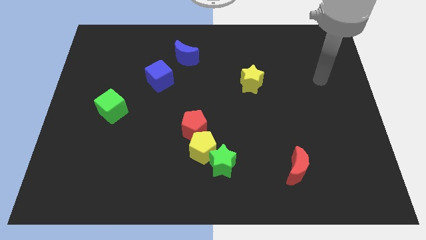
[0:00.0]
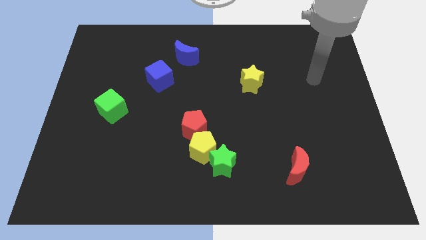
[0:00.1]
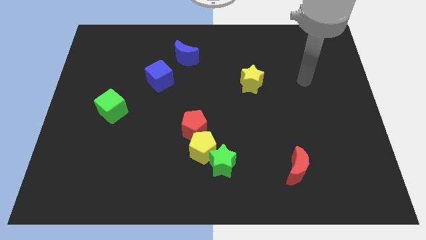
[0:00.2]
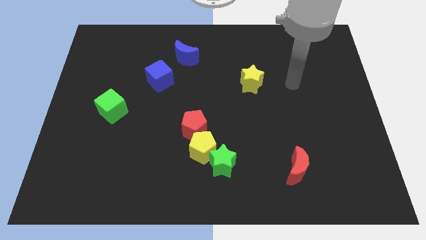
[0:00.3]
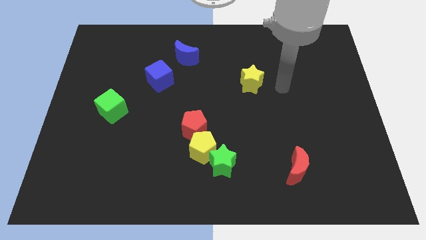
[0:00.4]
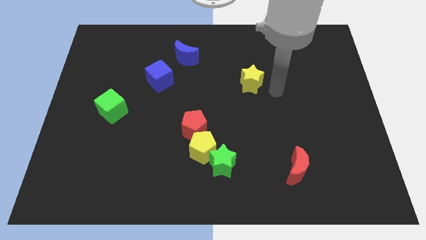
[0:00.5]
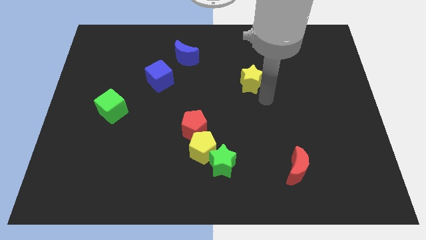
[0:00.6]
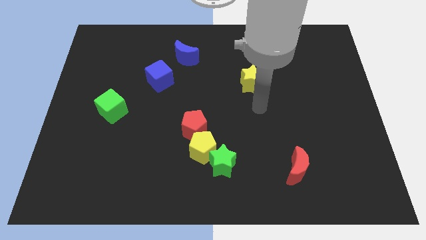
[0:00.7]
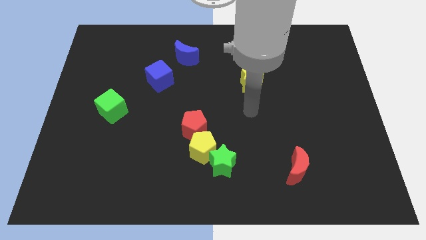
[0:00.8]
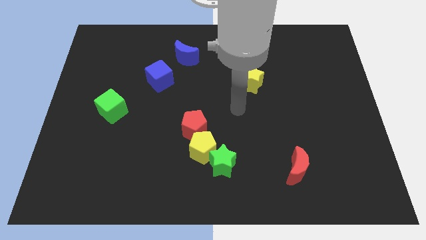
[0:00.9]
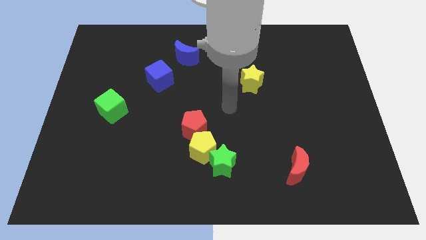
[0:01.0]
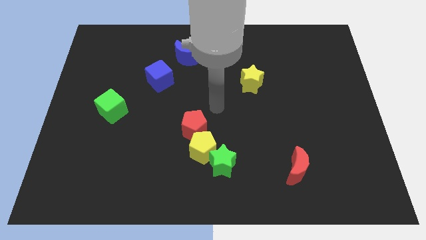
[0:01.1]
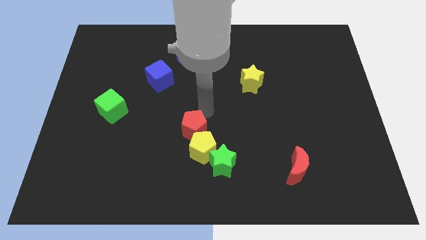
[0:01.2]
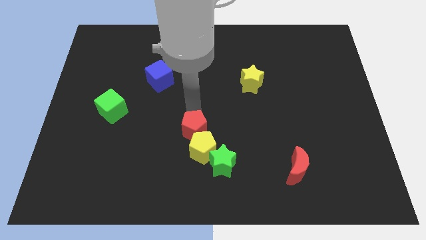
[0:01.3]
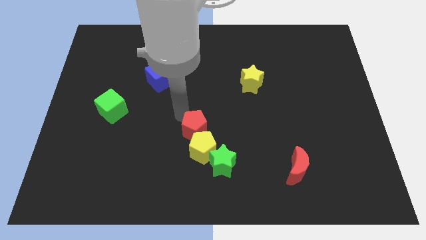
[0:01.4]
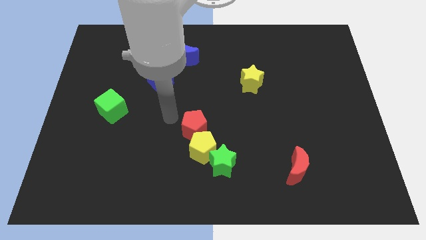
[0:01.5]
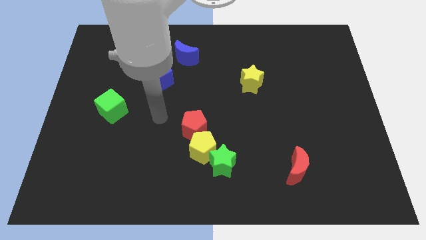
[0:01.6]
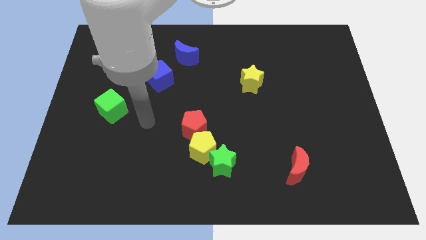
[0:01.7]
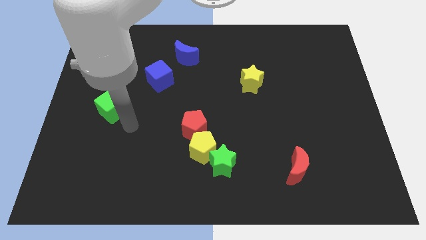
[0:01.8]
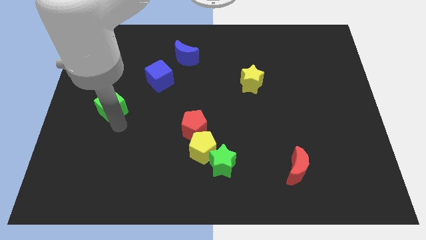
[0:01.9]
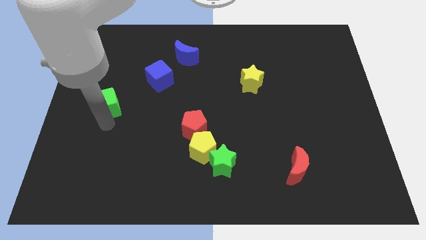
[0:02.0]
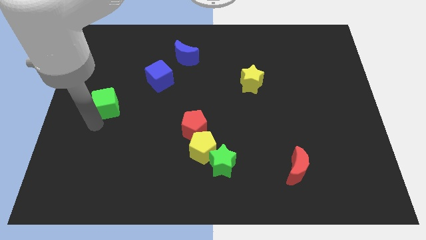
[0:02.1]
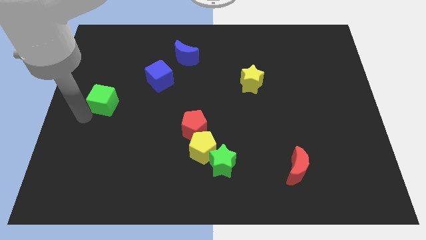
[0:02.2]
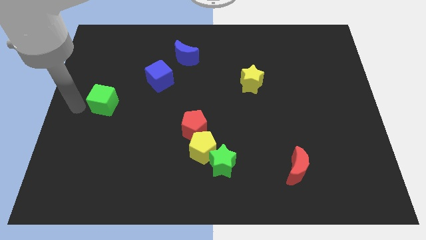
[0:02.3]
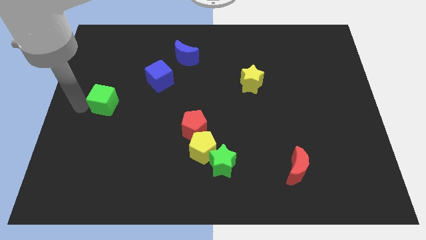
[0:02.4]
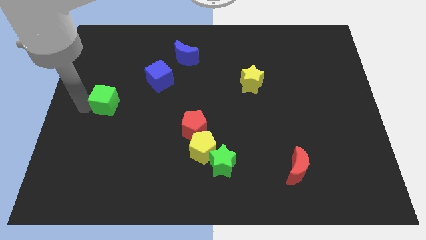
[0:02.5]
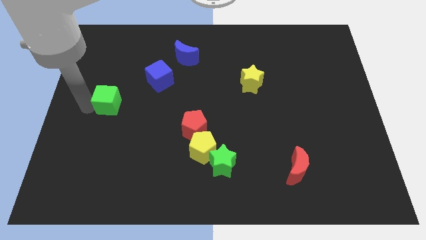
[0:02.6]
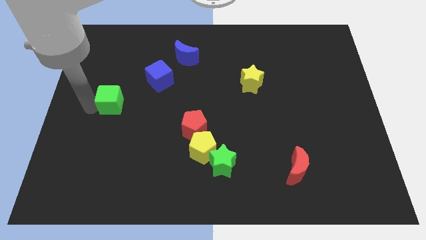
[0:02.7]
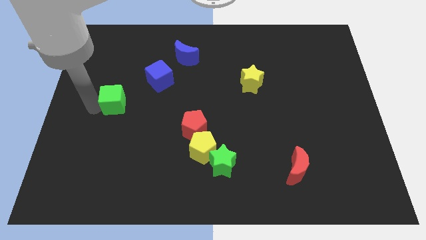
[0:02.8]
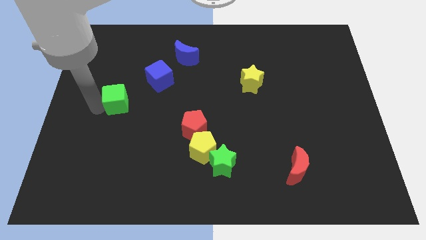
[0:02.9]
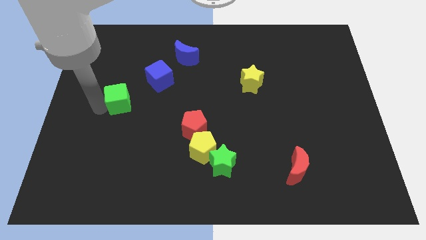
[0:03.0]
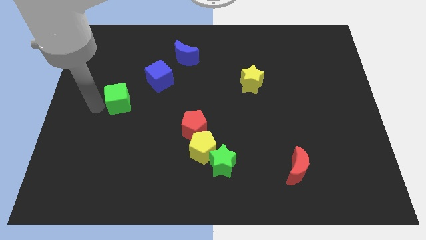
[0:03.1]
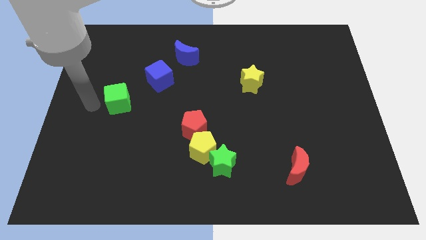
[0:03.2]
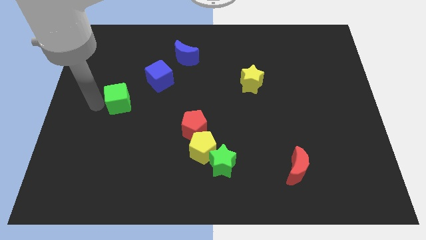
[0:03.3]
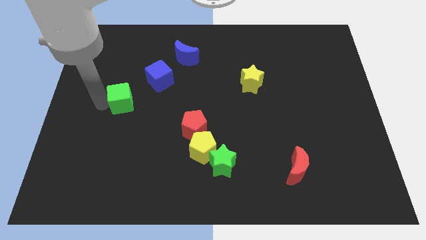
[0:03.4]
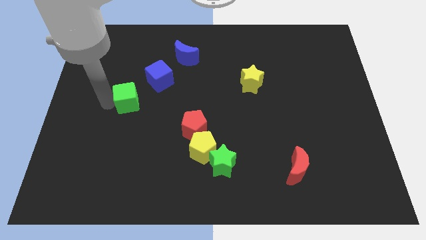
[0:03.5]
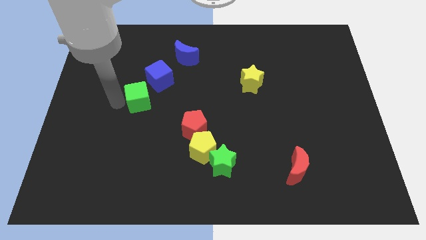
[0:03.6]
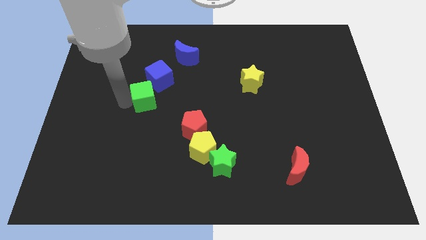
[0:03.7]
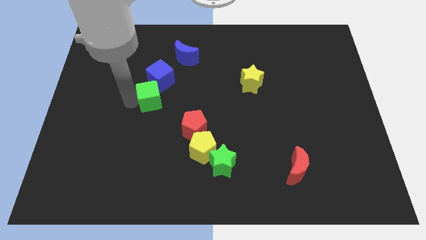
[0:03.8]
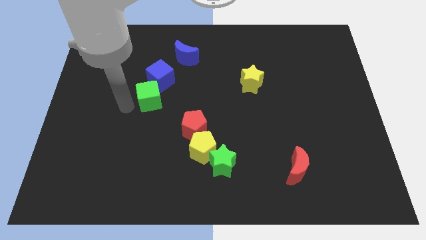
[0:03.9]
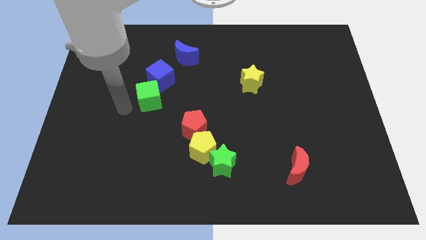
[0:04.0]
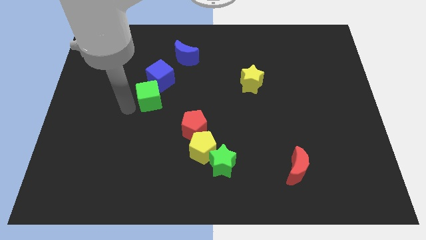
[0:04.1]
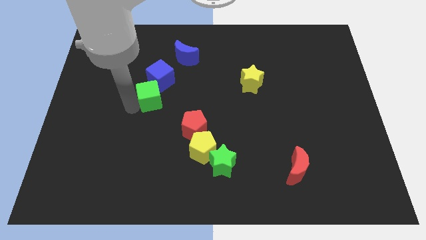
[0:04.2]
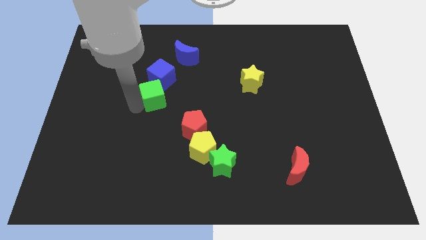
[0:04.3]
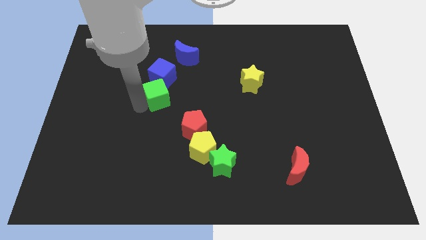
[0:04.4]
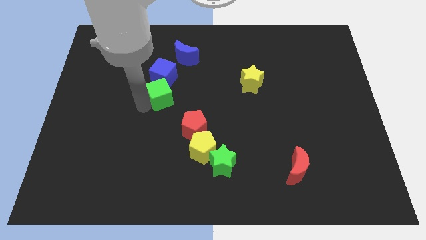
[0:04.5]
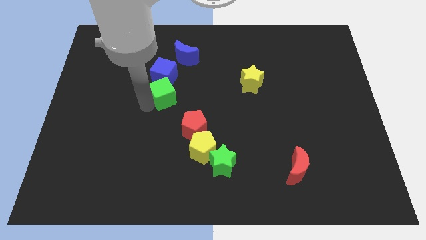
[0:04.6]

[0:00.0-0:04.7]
move the green cube below the blue moon

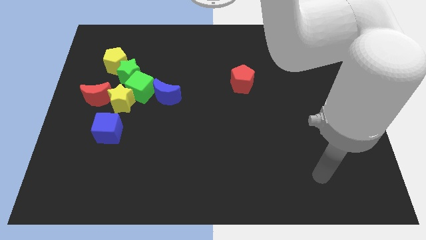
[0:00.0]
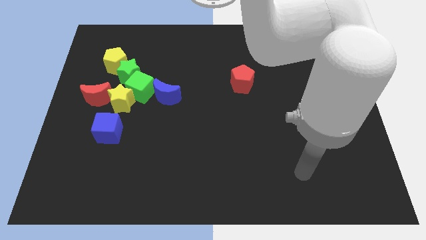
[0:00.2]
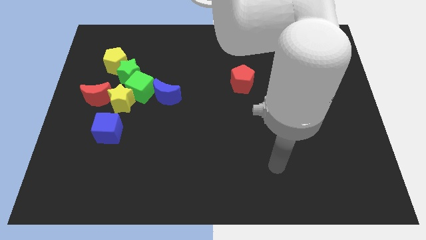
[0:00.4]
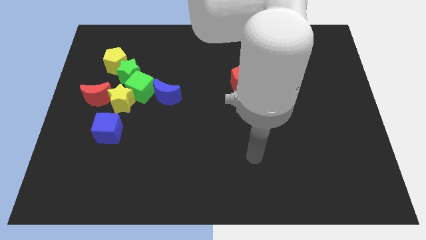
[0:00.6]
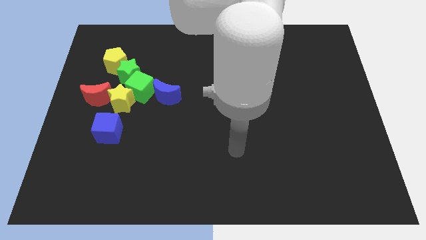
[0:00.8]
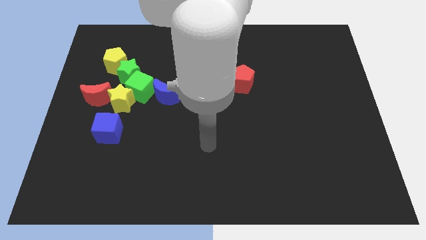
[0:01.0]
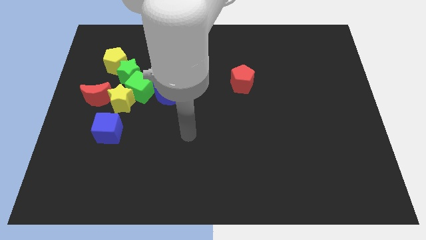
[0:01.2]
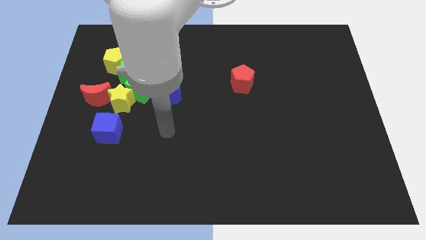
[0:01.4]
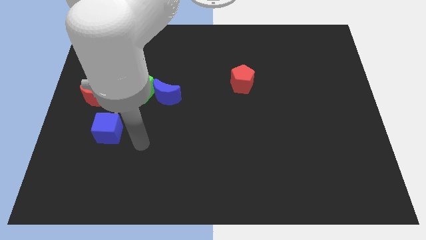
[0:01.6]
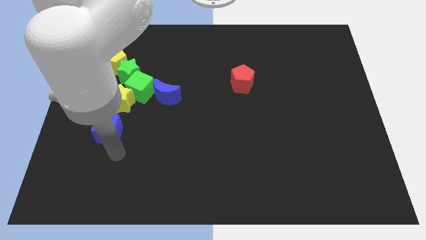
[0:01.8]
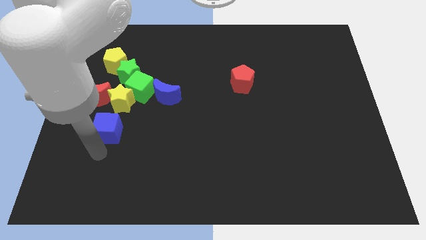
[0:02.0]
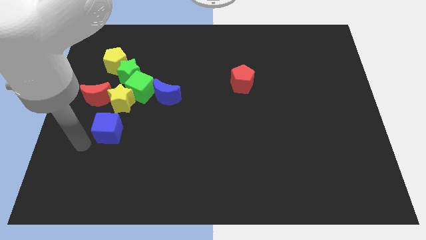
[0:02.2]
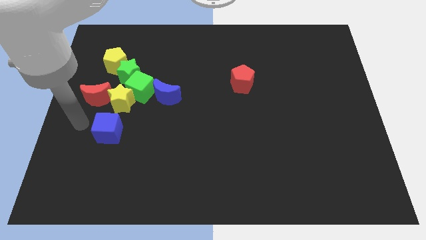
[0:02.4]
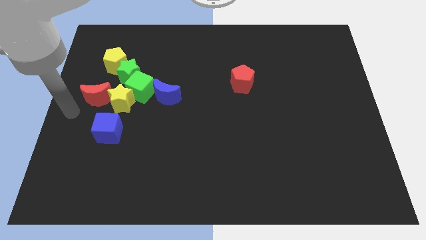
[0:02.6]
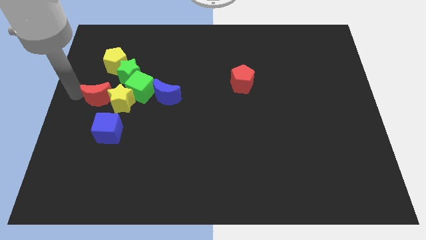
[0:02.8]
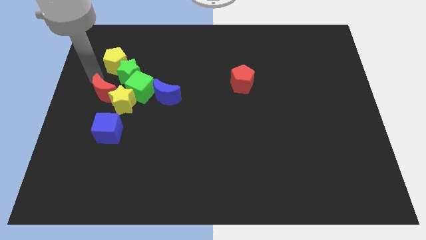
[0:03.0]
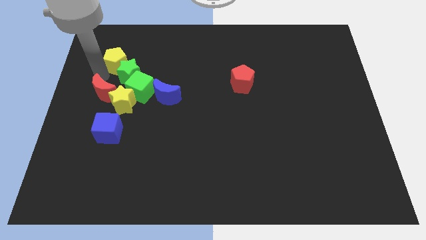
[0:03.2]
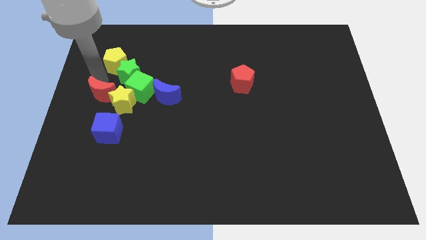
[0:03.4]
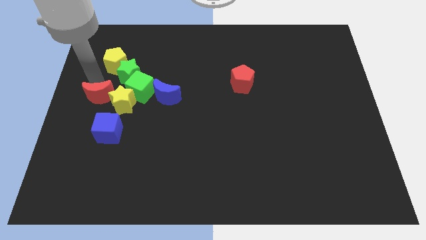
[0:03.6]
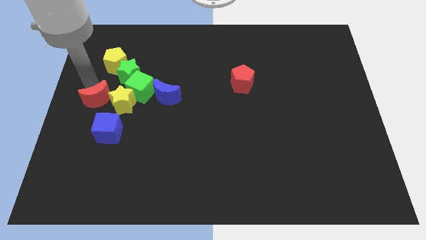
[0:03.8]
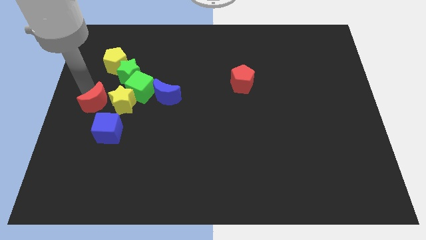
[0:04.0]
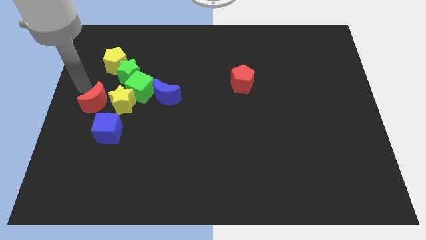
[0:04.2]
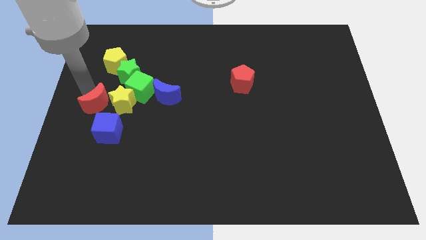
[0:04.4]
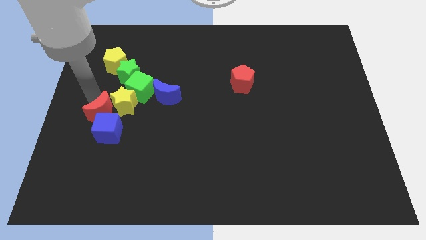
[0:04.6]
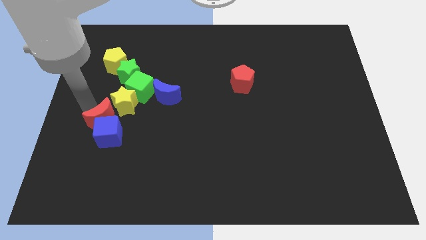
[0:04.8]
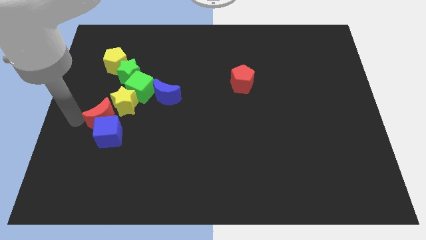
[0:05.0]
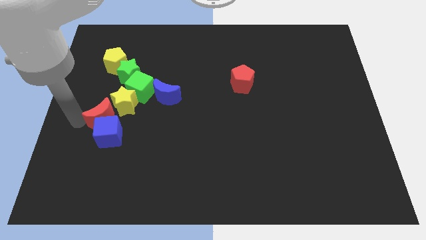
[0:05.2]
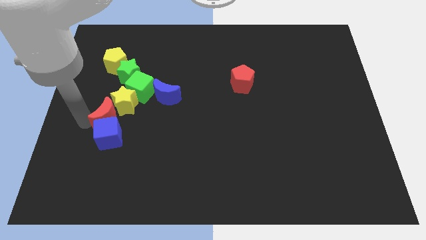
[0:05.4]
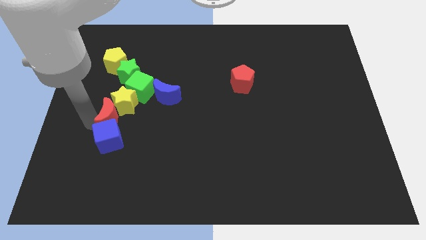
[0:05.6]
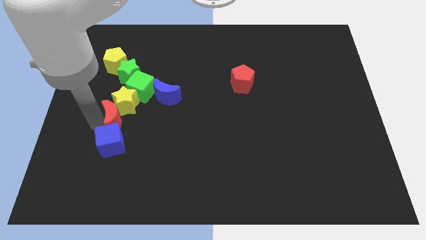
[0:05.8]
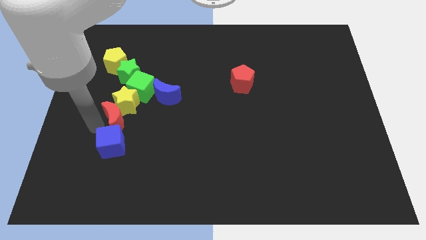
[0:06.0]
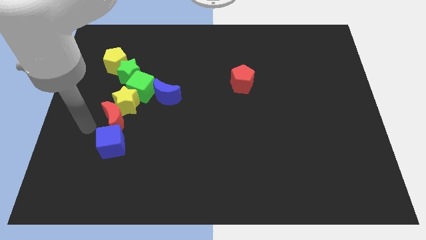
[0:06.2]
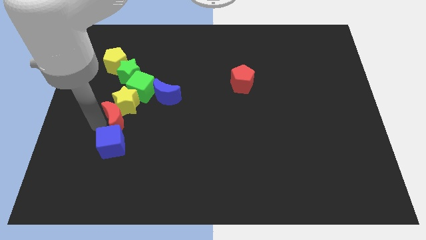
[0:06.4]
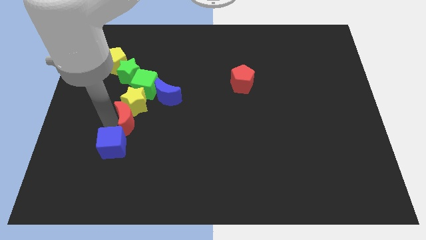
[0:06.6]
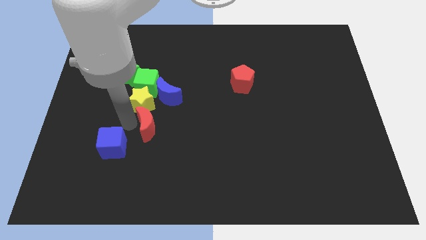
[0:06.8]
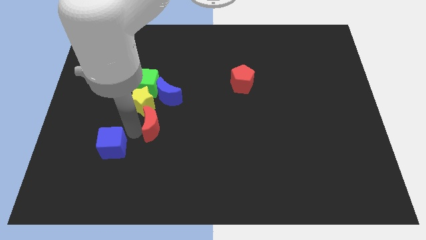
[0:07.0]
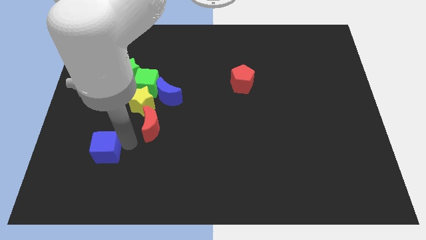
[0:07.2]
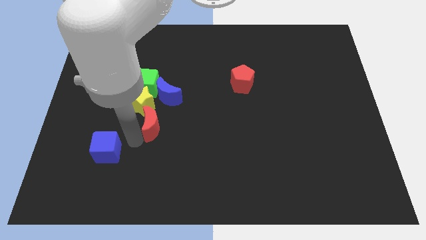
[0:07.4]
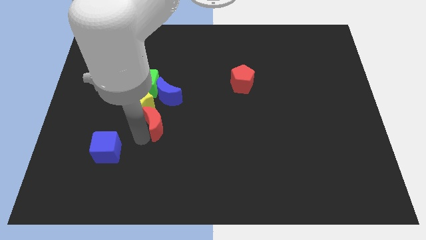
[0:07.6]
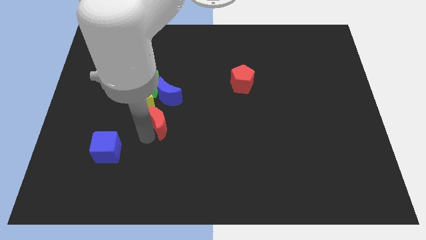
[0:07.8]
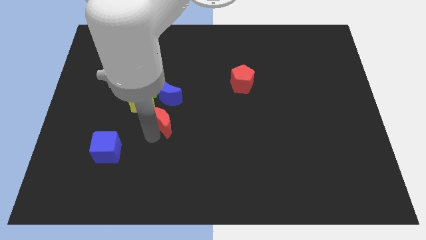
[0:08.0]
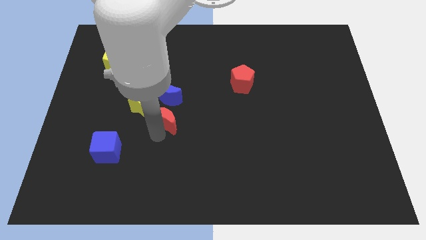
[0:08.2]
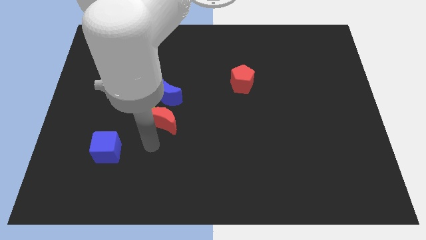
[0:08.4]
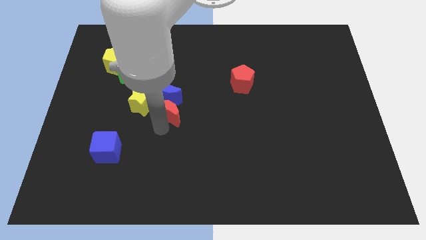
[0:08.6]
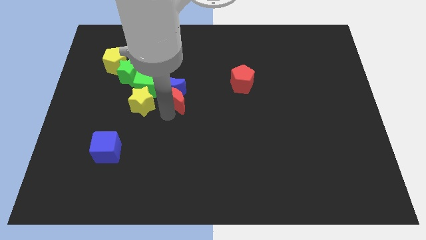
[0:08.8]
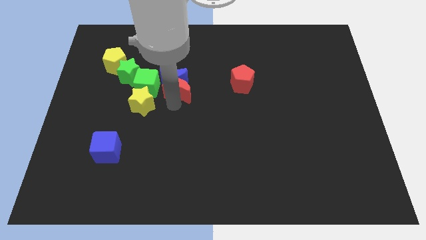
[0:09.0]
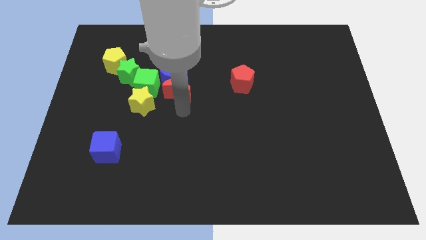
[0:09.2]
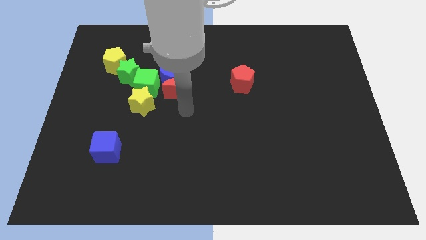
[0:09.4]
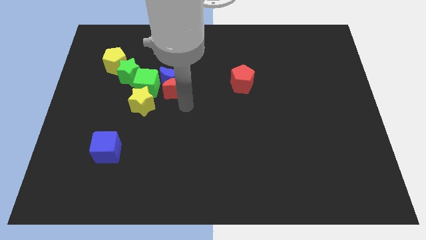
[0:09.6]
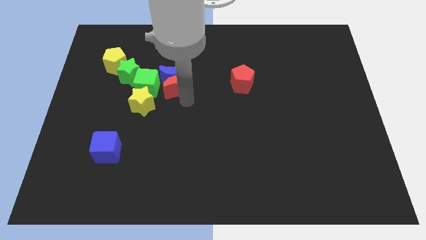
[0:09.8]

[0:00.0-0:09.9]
put the red moon to the right side of the green star
